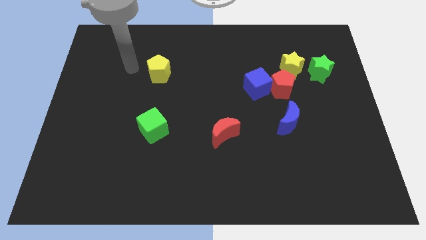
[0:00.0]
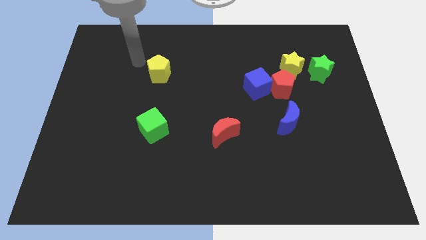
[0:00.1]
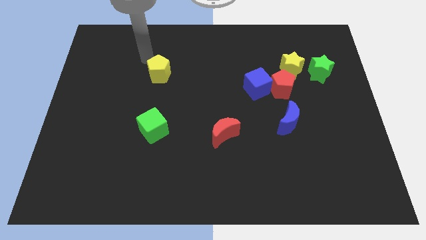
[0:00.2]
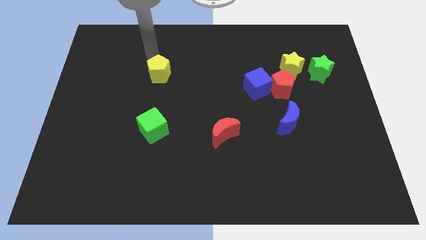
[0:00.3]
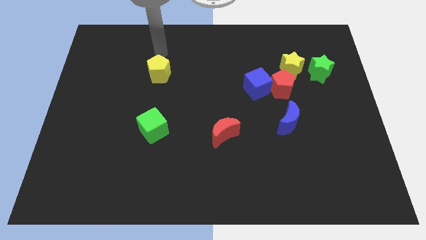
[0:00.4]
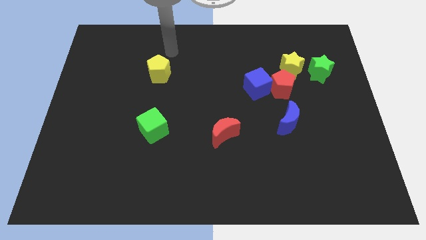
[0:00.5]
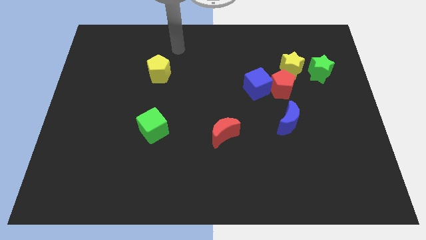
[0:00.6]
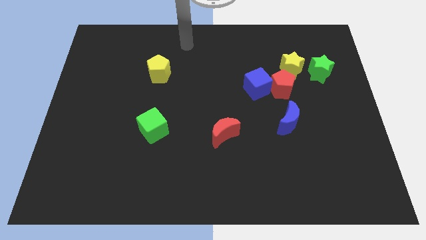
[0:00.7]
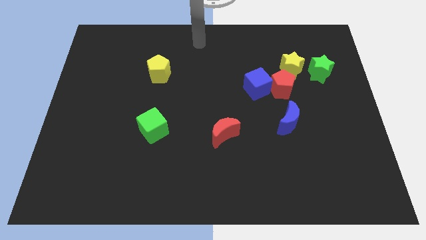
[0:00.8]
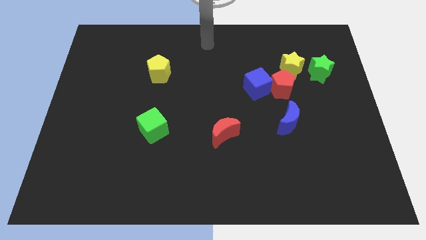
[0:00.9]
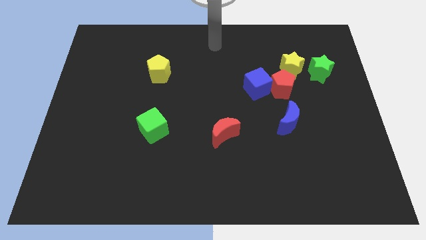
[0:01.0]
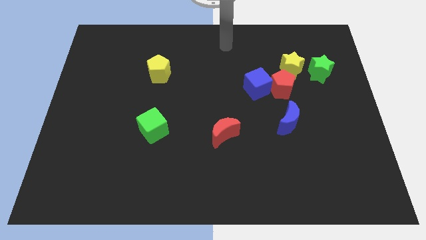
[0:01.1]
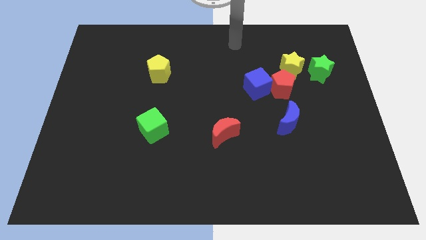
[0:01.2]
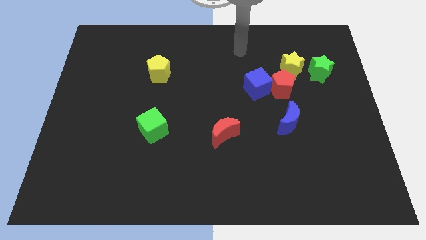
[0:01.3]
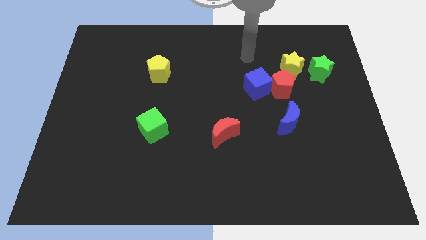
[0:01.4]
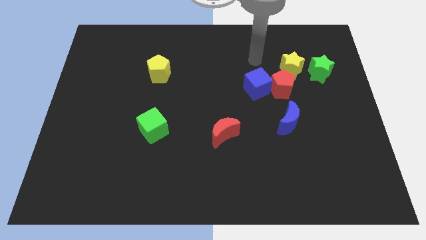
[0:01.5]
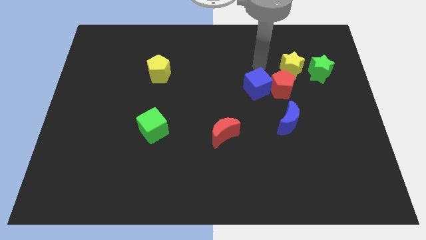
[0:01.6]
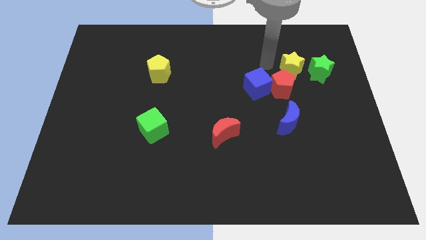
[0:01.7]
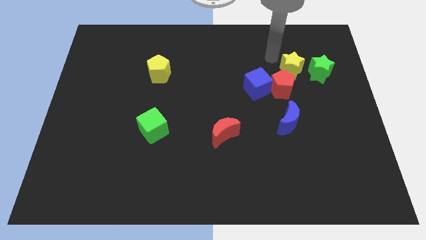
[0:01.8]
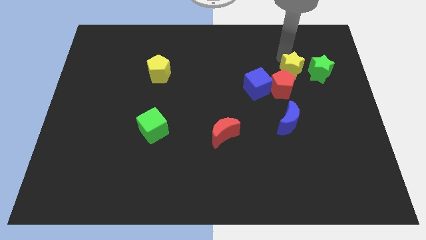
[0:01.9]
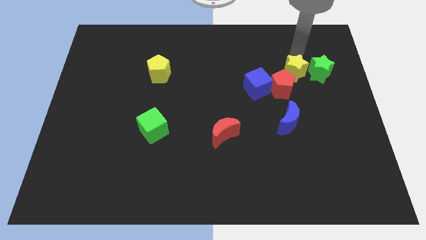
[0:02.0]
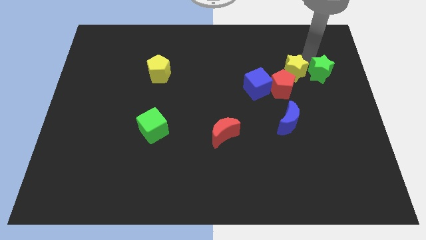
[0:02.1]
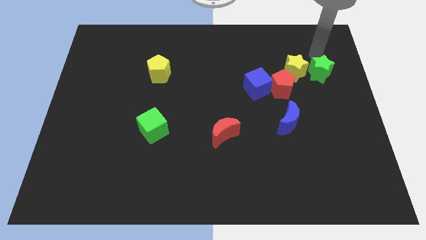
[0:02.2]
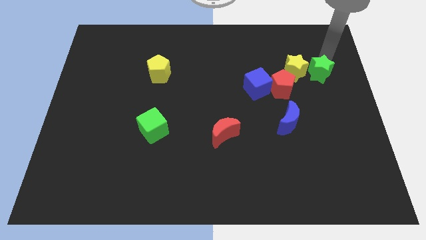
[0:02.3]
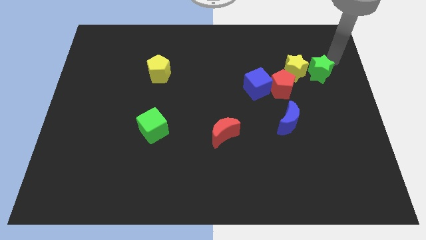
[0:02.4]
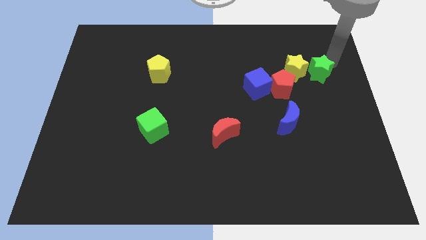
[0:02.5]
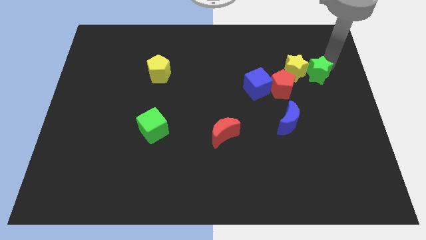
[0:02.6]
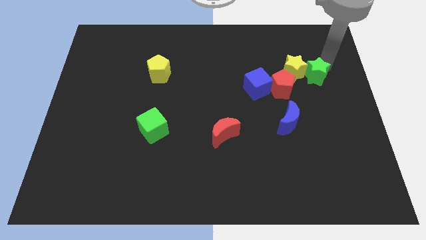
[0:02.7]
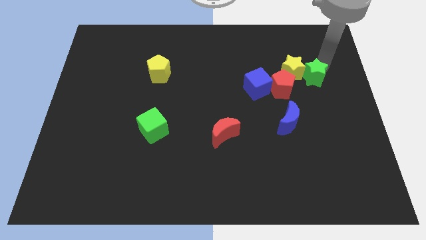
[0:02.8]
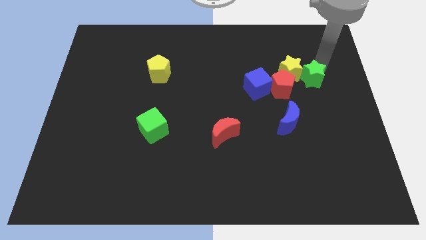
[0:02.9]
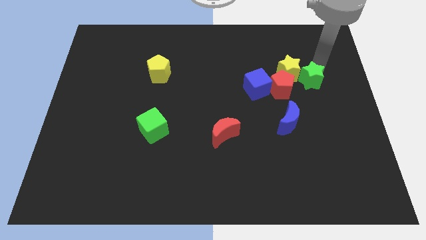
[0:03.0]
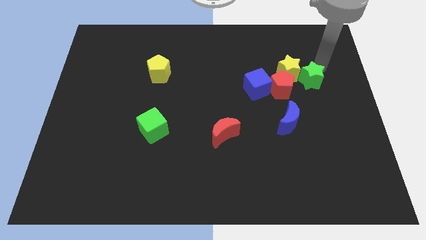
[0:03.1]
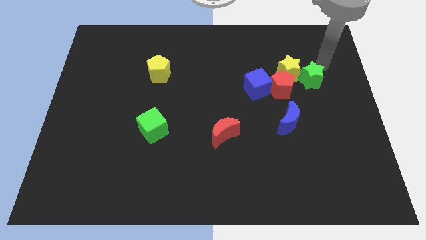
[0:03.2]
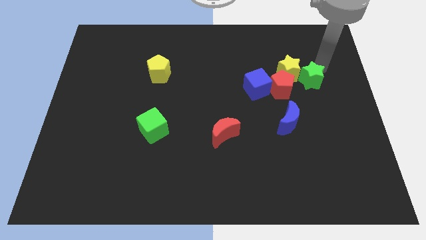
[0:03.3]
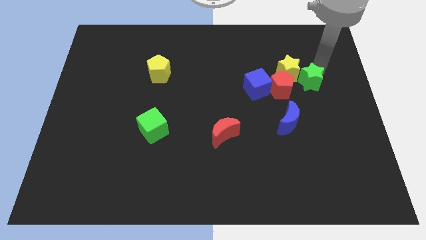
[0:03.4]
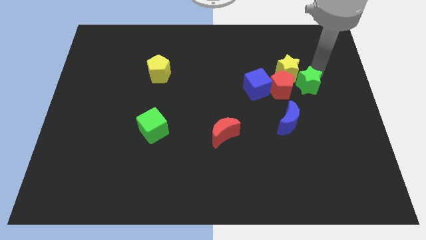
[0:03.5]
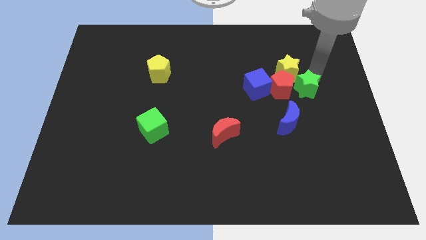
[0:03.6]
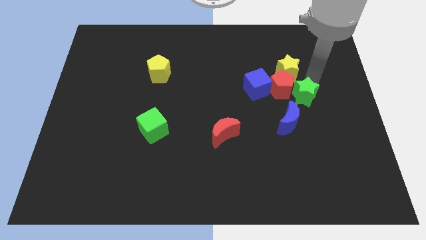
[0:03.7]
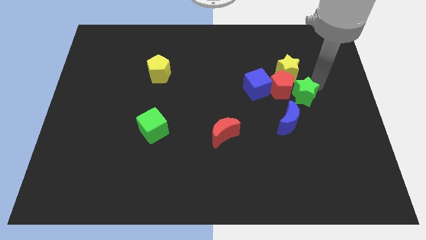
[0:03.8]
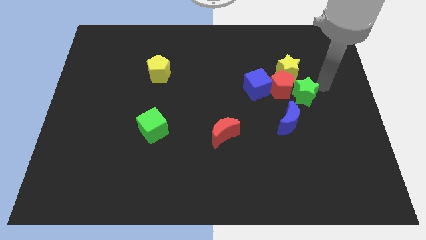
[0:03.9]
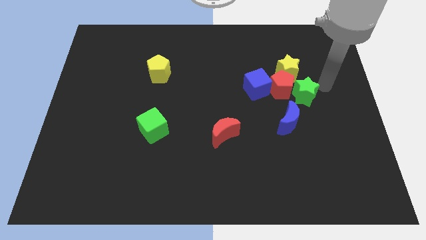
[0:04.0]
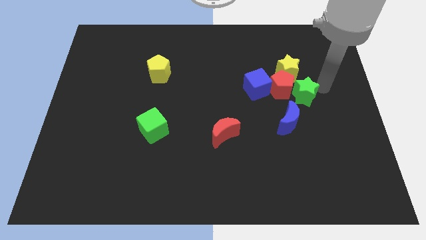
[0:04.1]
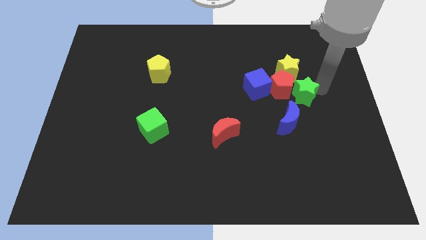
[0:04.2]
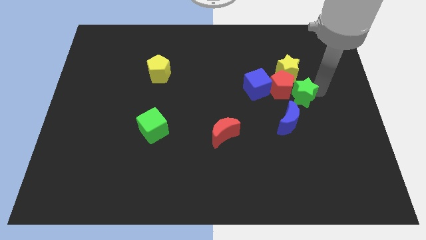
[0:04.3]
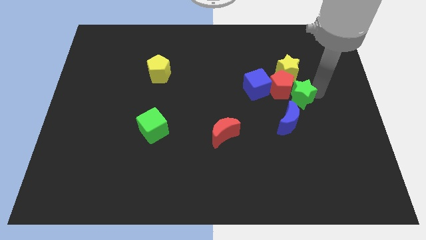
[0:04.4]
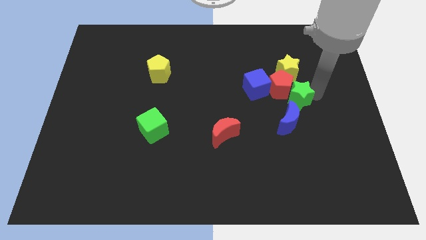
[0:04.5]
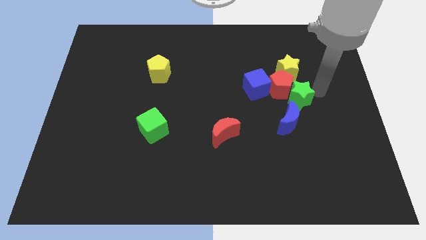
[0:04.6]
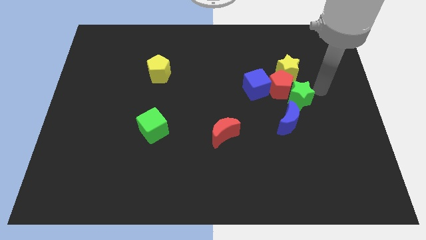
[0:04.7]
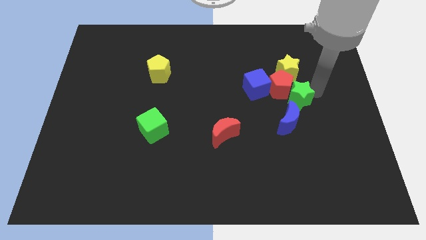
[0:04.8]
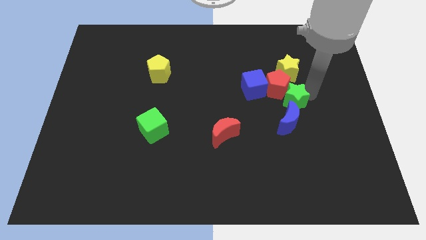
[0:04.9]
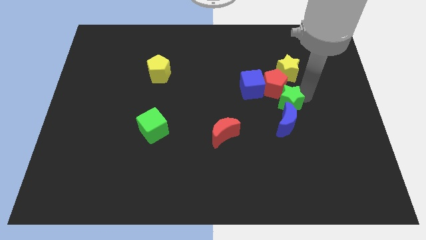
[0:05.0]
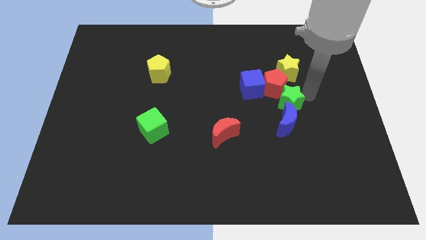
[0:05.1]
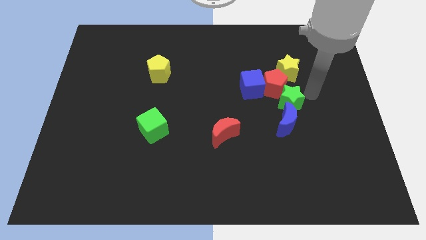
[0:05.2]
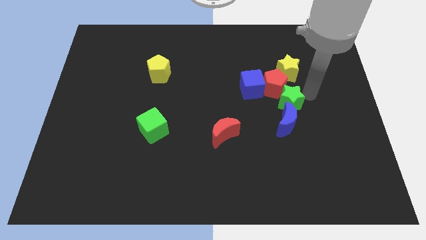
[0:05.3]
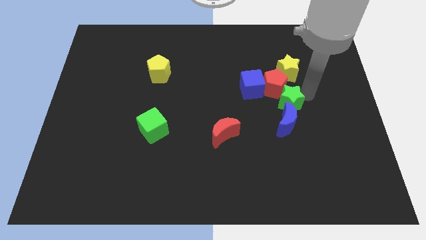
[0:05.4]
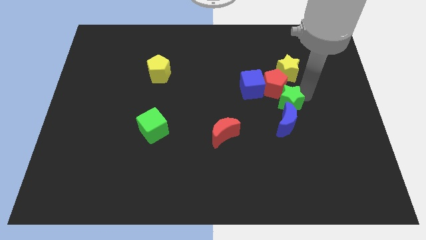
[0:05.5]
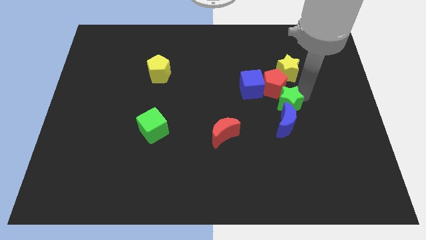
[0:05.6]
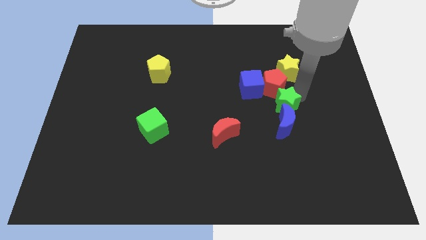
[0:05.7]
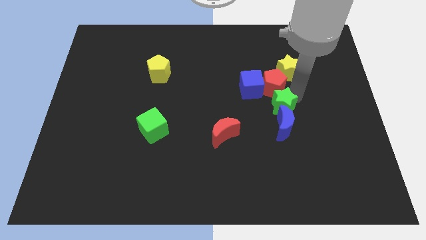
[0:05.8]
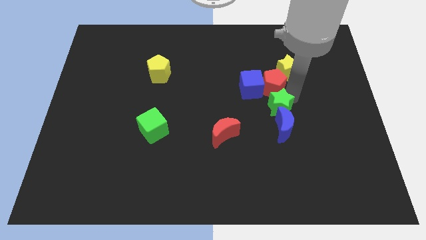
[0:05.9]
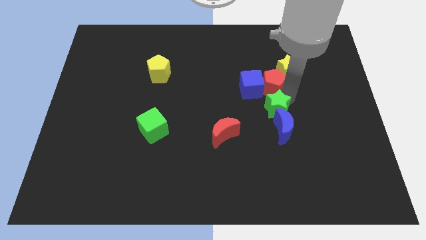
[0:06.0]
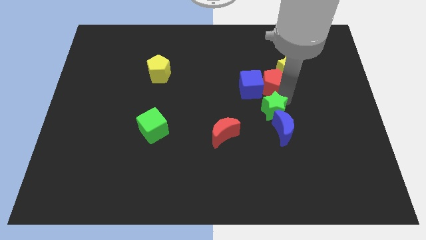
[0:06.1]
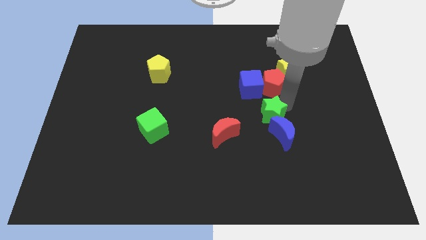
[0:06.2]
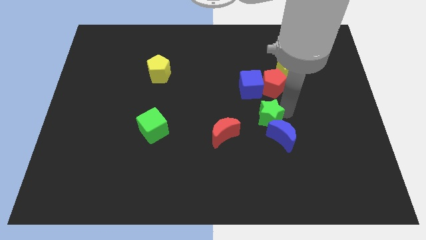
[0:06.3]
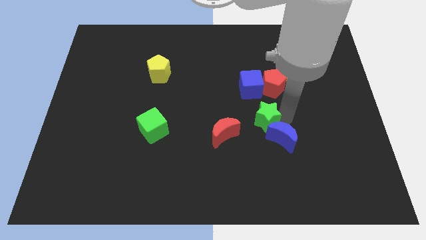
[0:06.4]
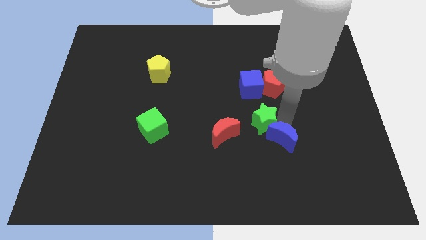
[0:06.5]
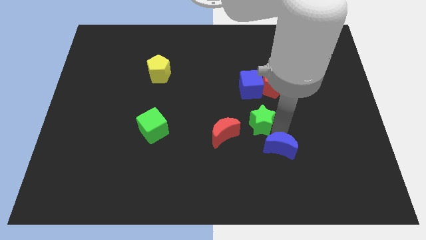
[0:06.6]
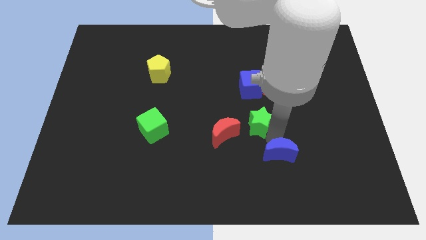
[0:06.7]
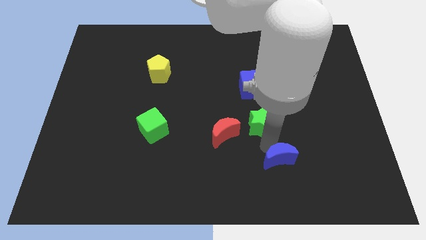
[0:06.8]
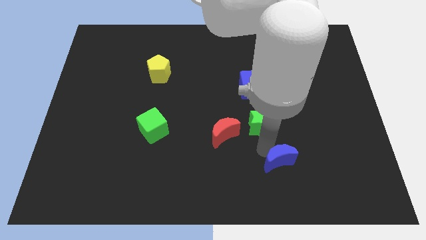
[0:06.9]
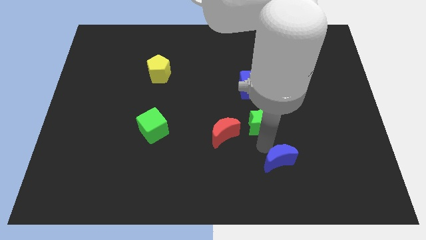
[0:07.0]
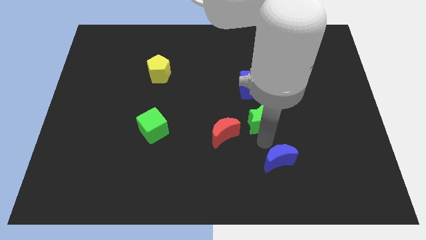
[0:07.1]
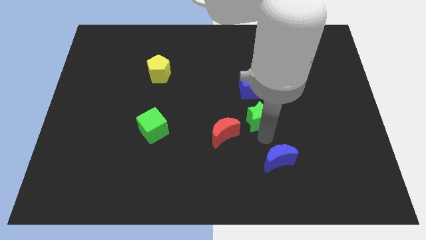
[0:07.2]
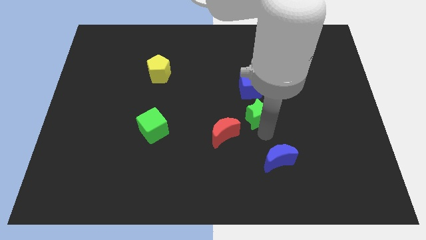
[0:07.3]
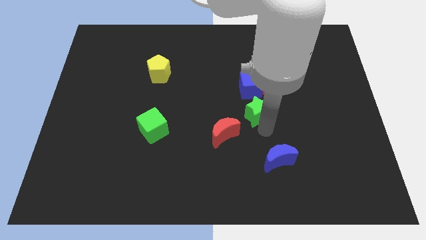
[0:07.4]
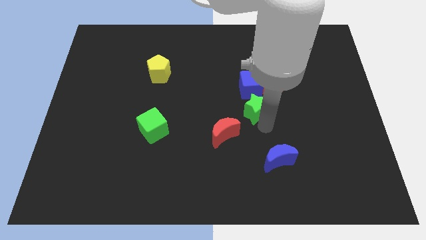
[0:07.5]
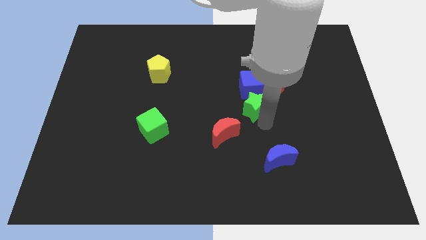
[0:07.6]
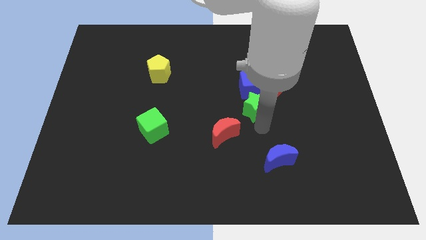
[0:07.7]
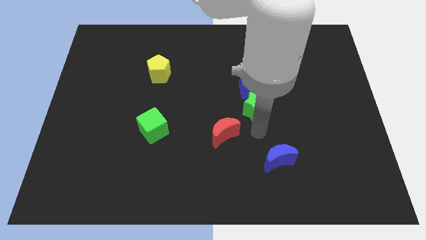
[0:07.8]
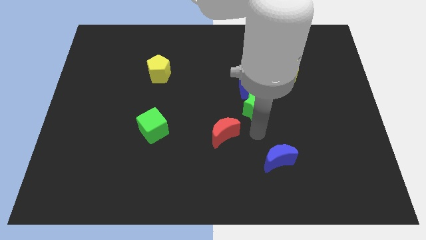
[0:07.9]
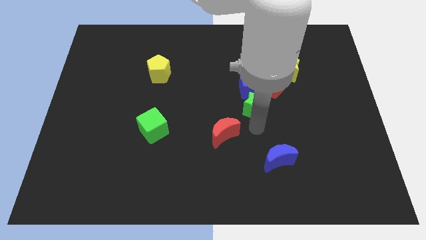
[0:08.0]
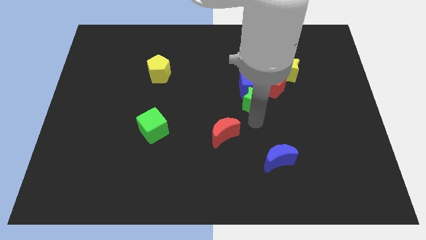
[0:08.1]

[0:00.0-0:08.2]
push the green star towards the blue cube
